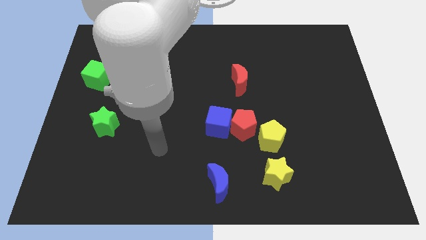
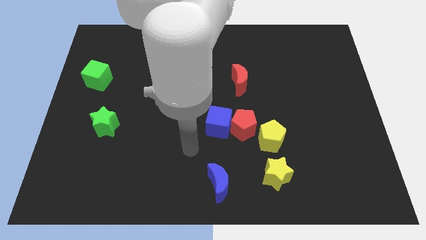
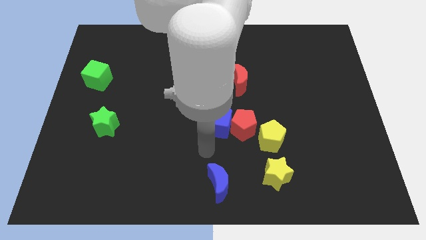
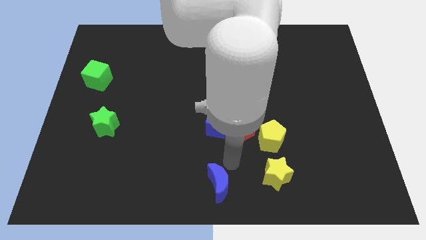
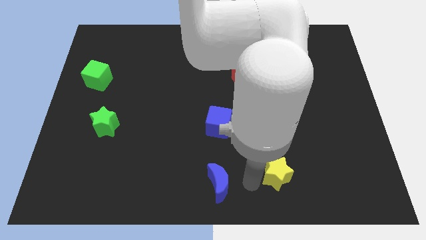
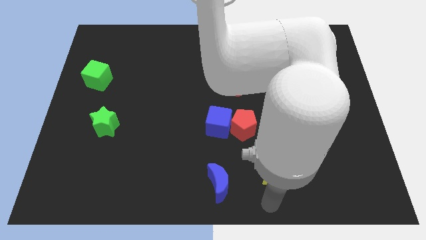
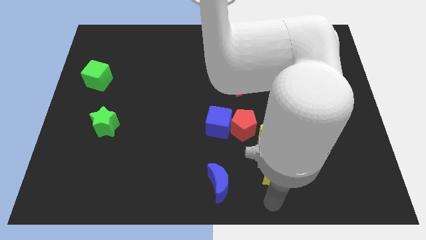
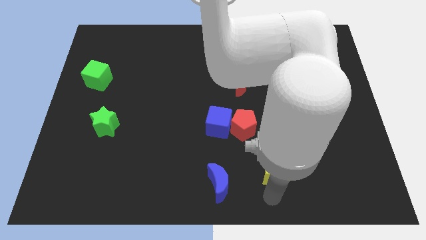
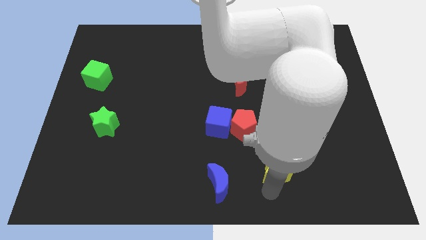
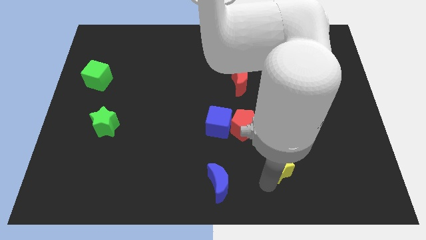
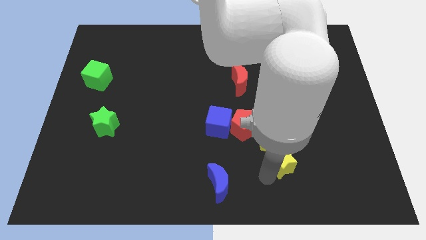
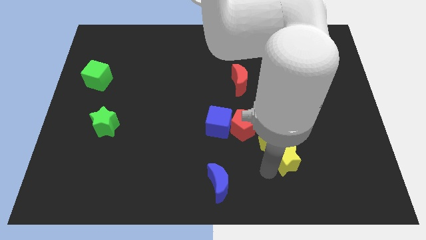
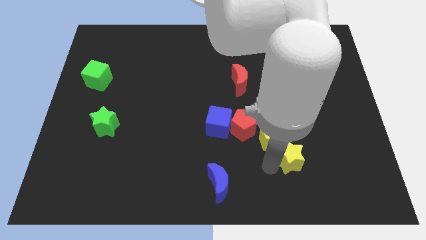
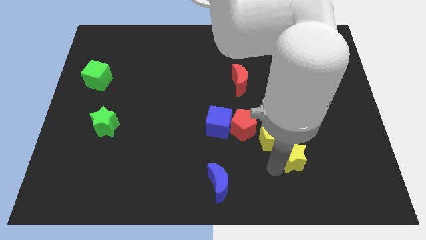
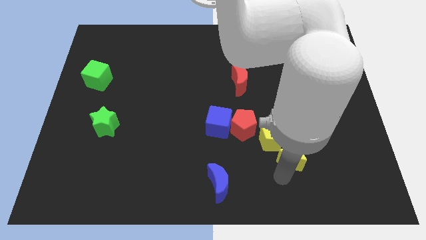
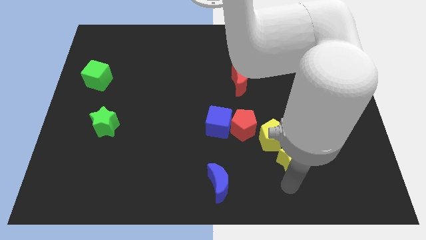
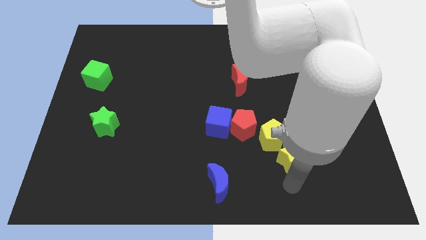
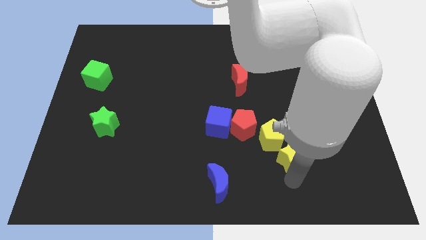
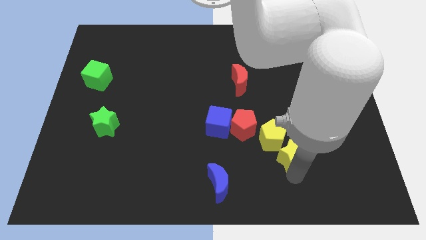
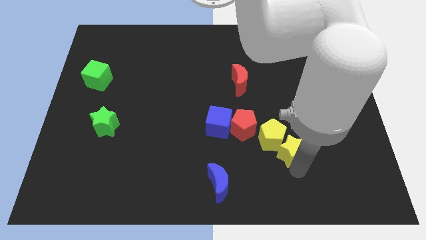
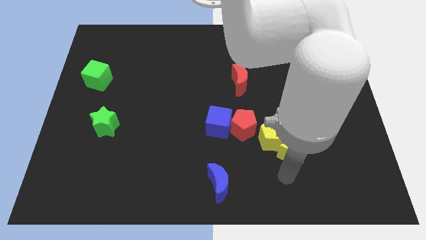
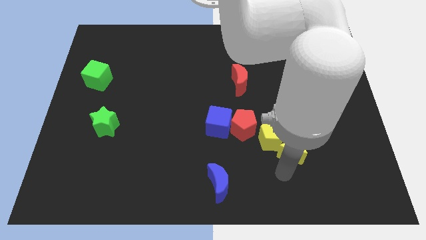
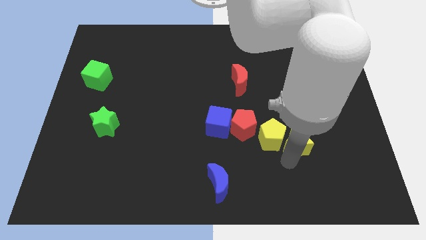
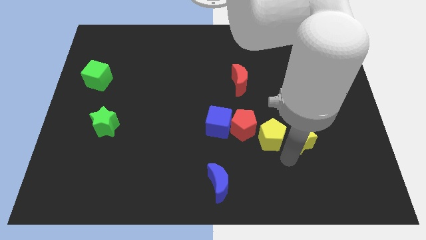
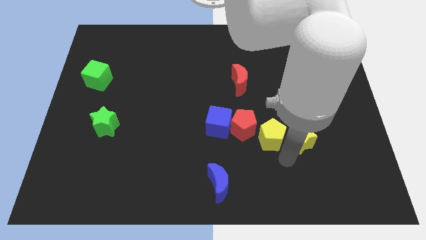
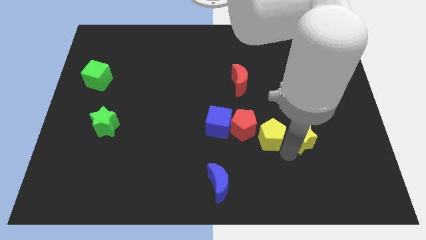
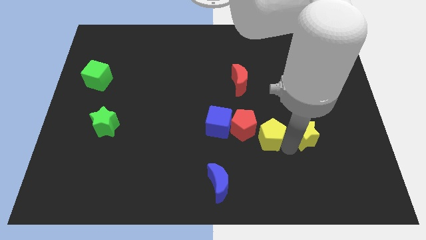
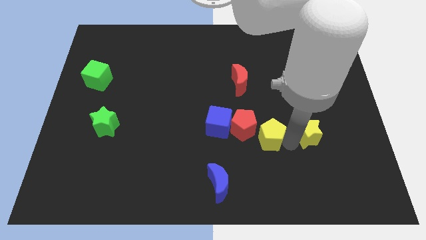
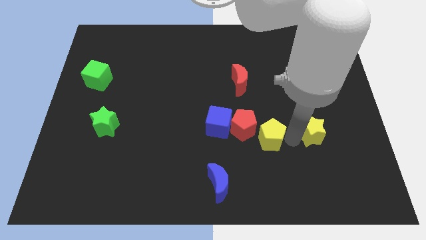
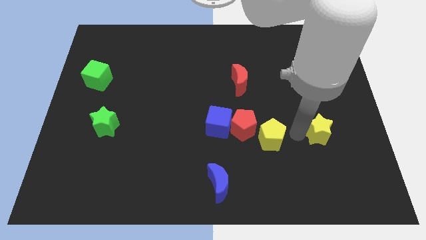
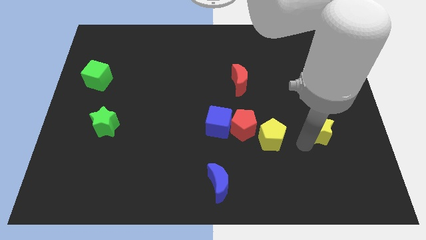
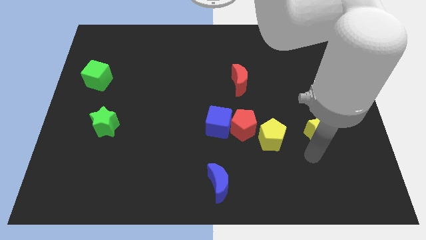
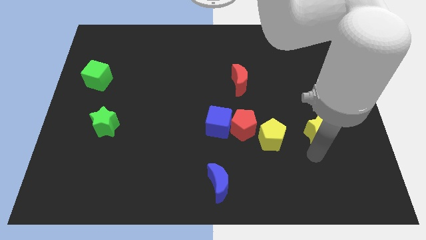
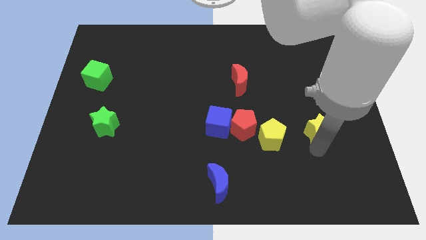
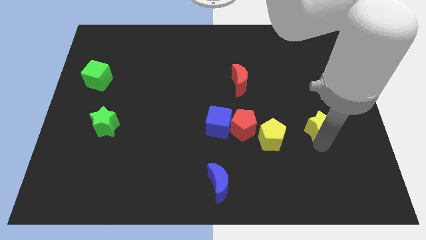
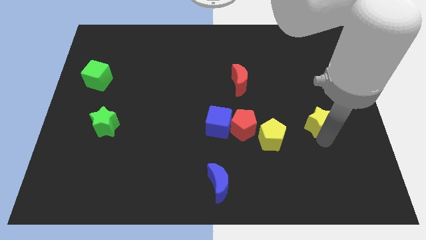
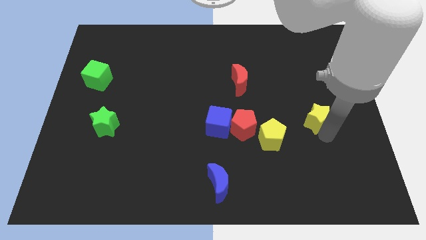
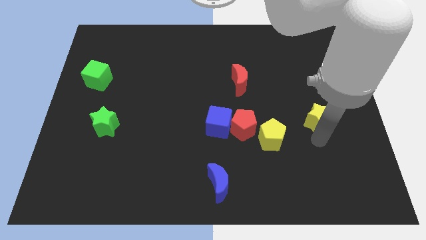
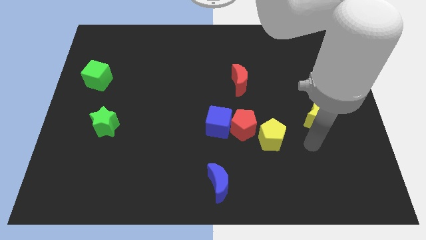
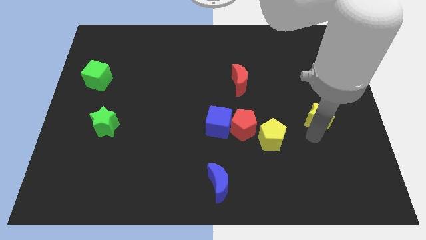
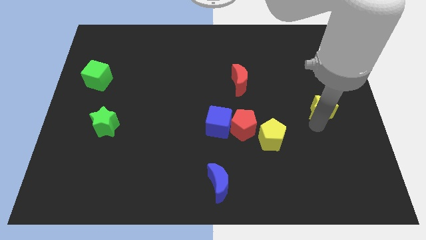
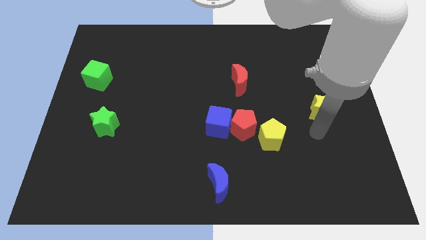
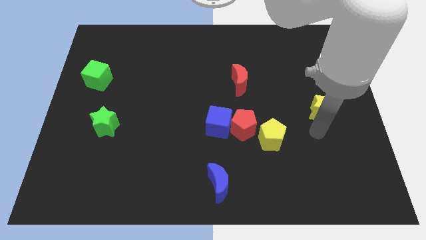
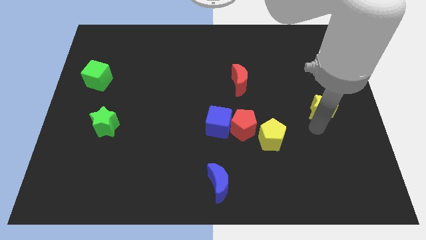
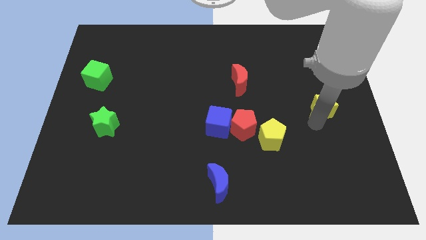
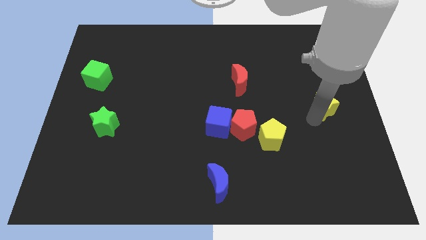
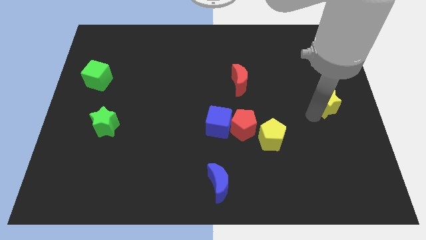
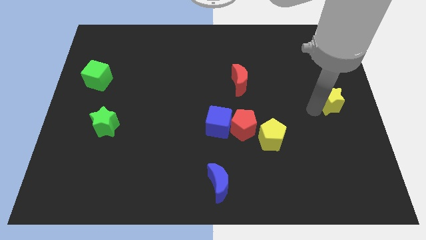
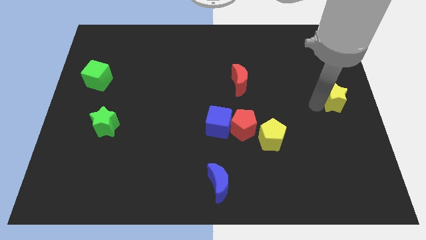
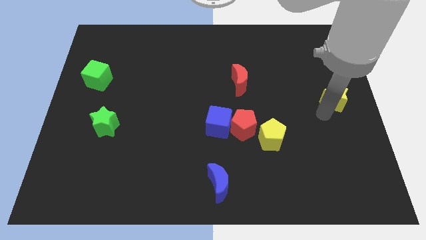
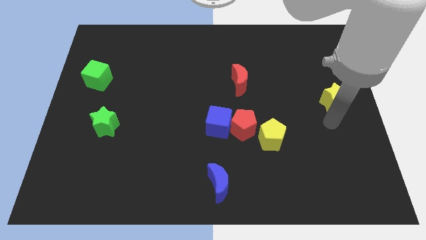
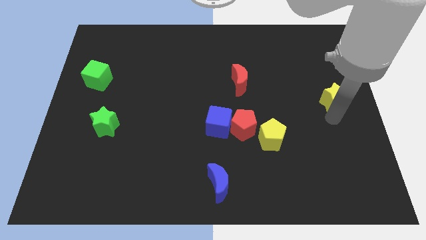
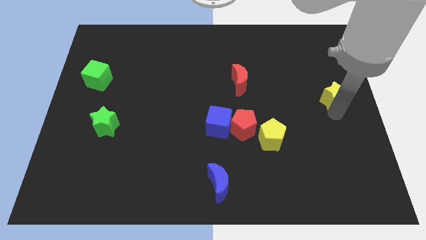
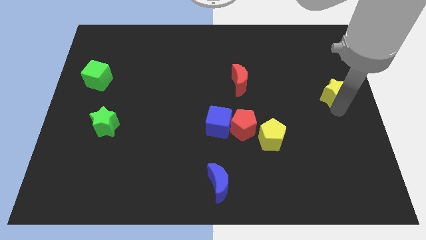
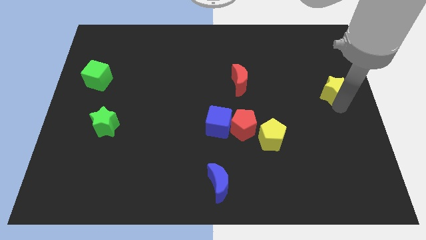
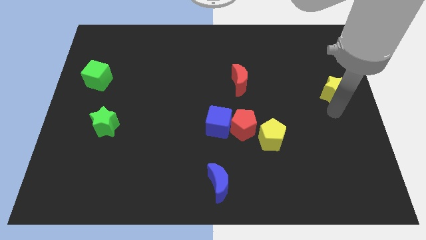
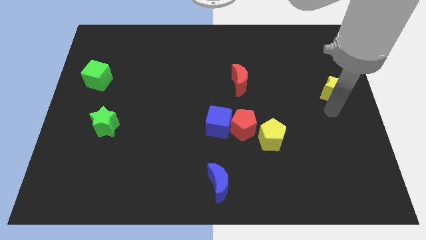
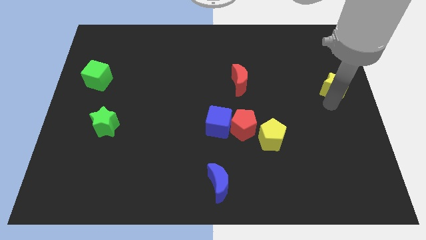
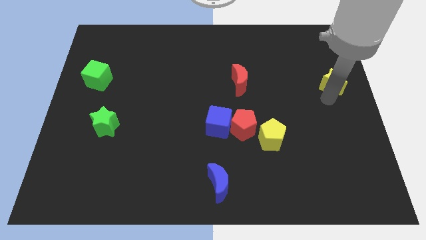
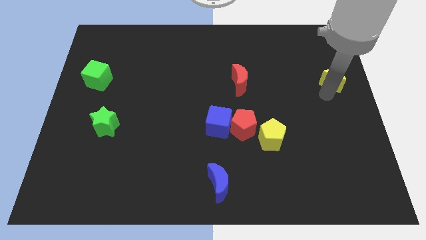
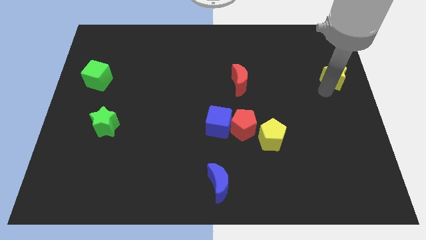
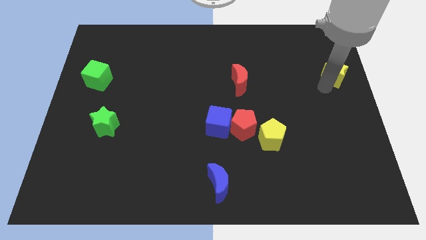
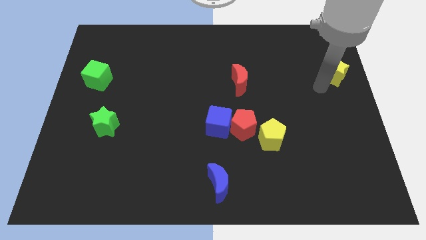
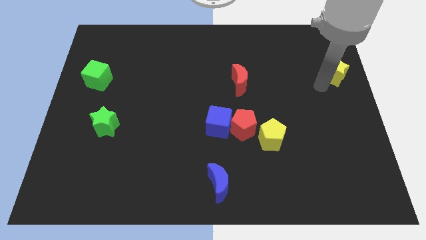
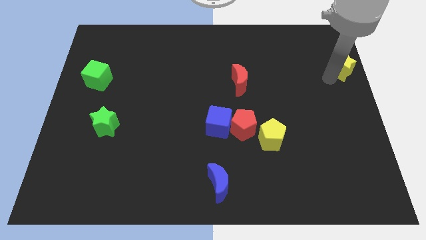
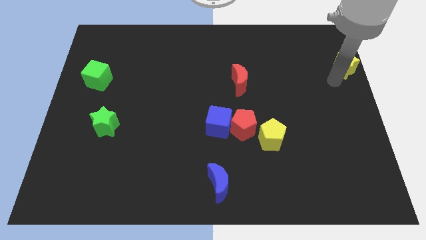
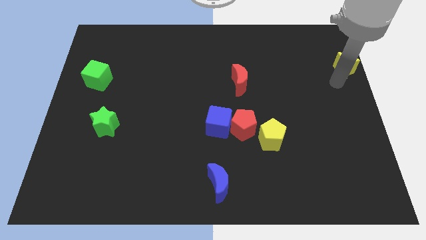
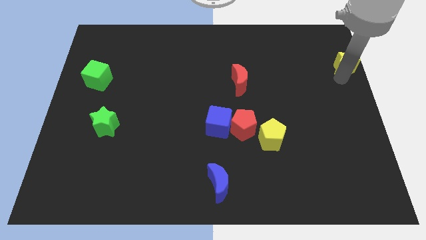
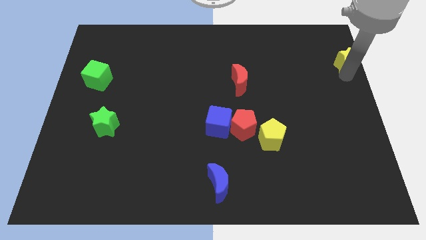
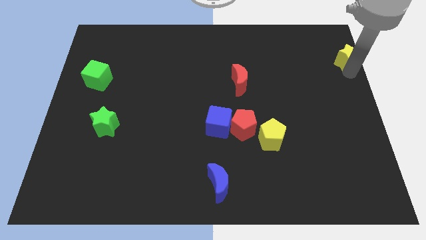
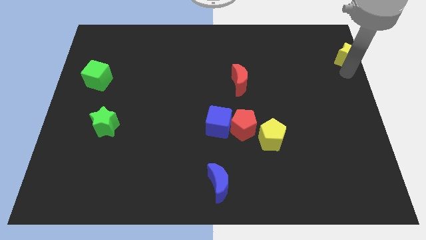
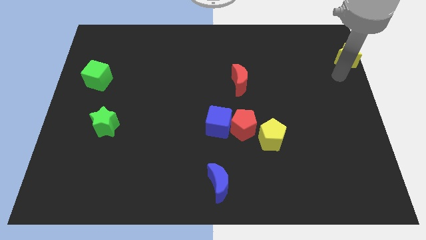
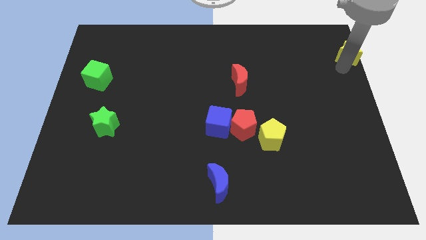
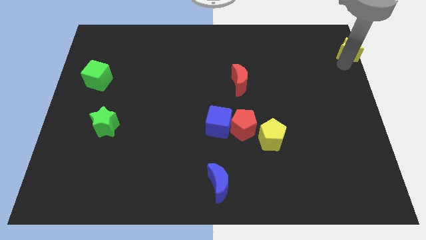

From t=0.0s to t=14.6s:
push the yellow star to the top right corner
